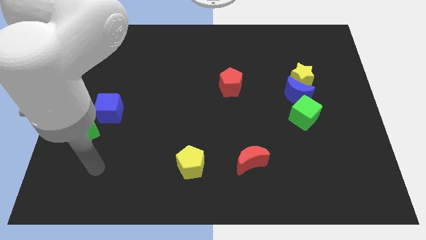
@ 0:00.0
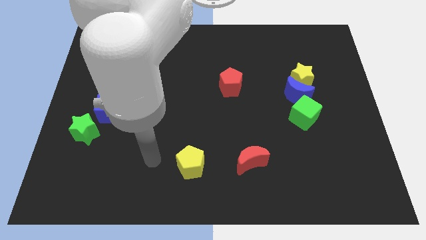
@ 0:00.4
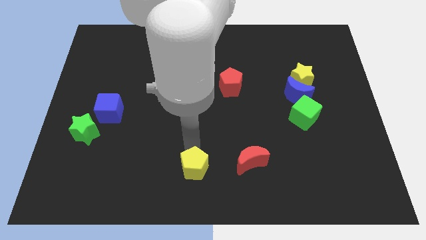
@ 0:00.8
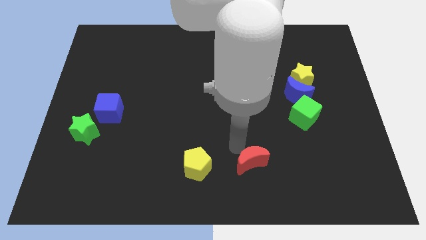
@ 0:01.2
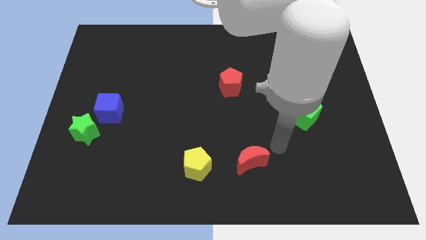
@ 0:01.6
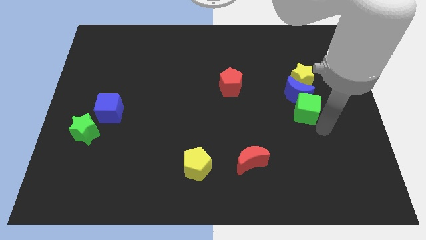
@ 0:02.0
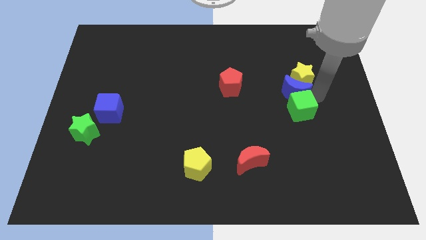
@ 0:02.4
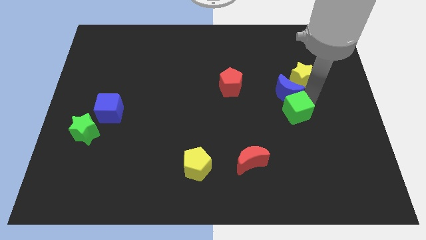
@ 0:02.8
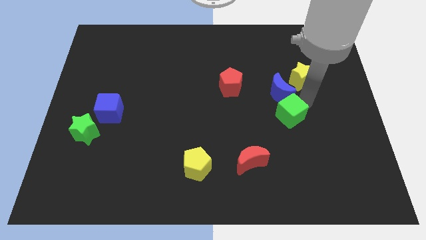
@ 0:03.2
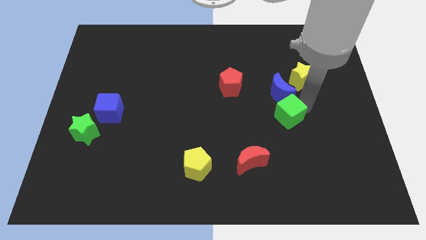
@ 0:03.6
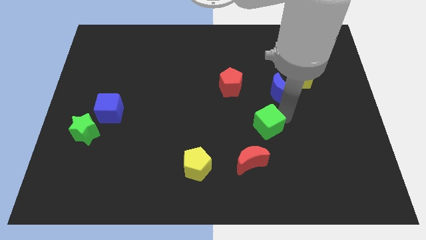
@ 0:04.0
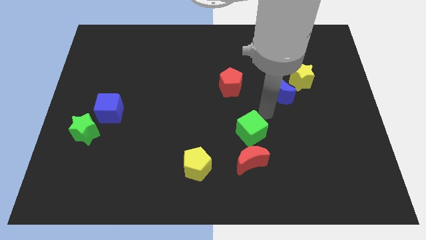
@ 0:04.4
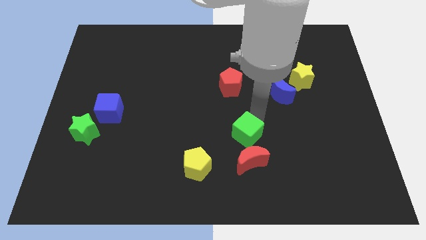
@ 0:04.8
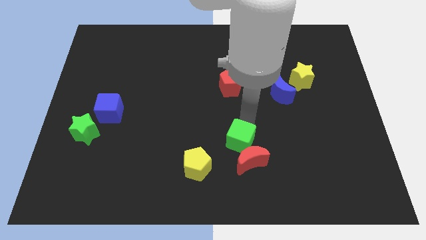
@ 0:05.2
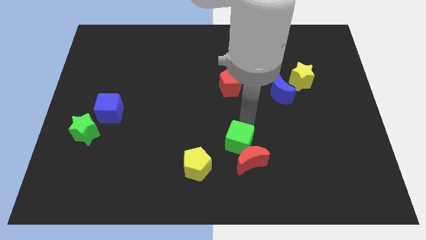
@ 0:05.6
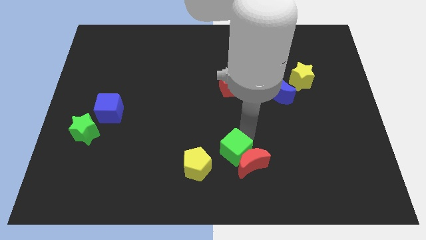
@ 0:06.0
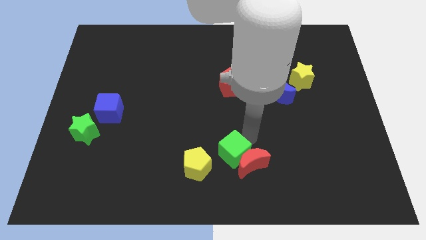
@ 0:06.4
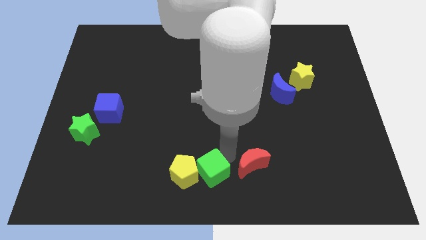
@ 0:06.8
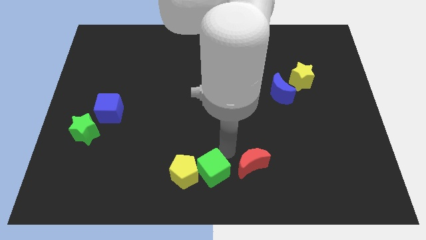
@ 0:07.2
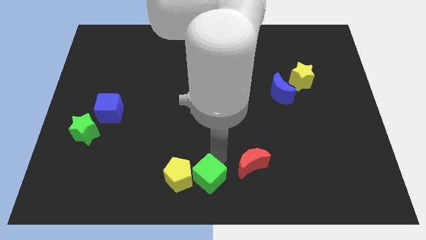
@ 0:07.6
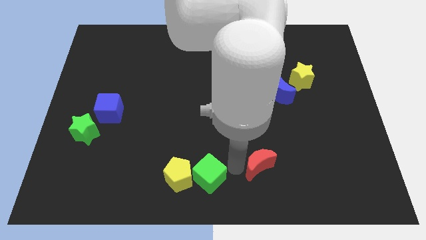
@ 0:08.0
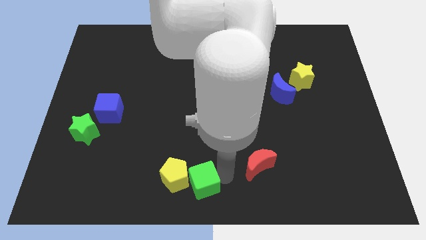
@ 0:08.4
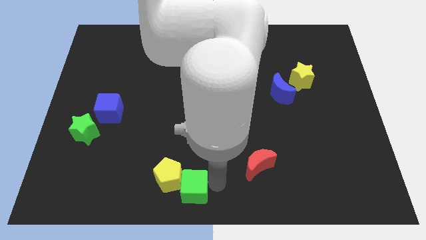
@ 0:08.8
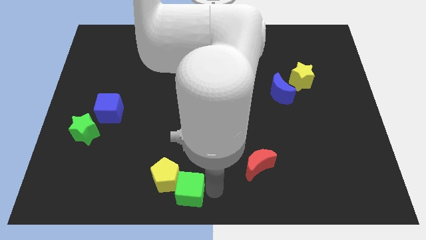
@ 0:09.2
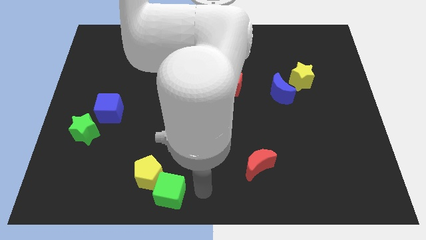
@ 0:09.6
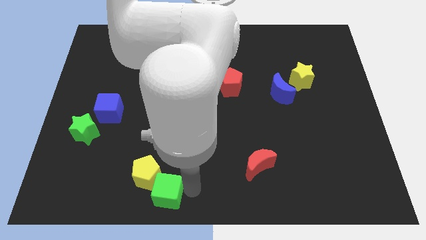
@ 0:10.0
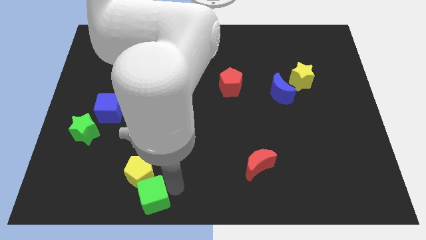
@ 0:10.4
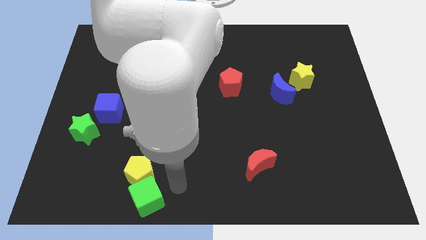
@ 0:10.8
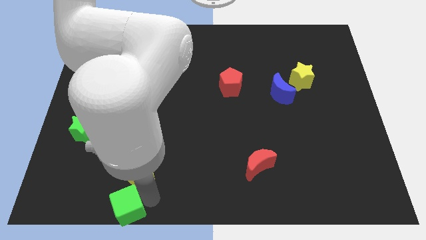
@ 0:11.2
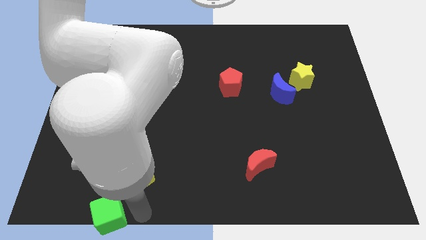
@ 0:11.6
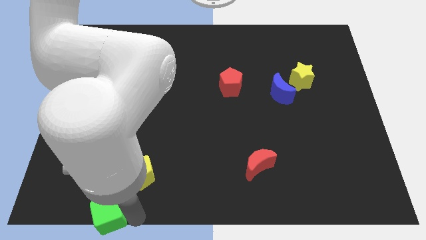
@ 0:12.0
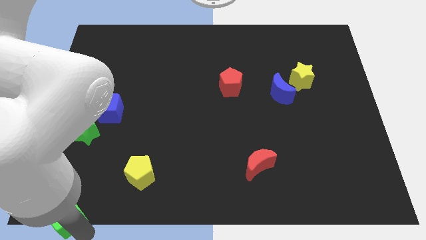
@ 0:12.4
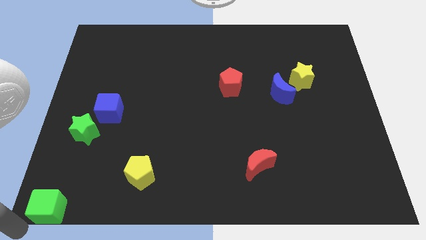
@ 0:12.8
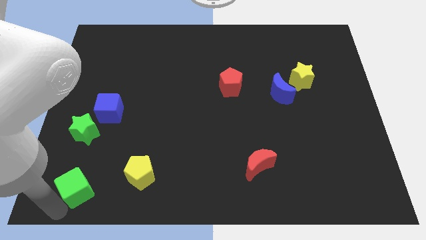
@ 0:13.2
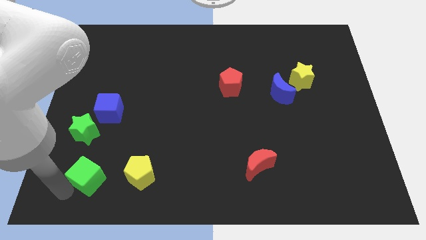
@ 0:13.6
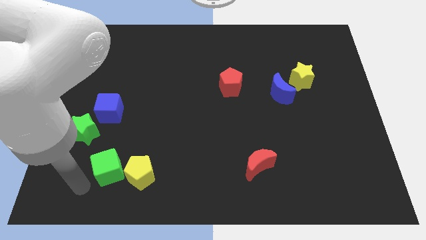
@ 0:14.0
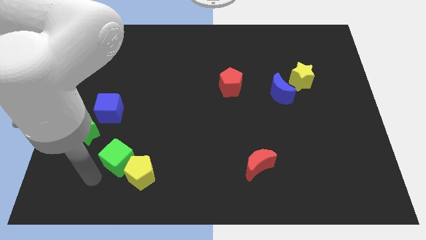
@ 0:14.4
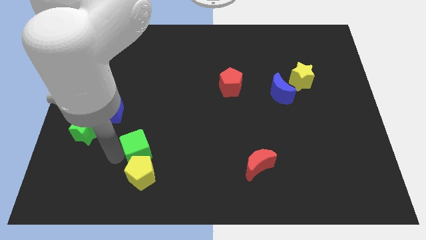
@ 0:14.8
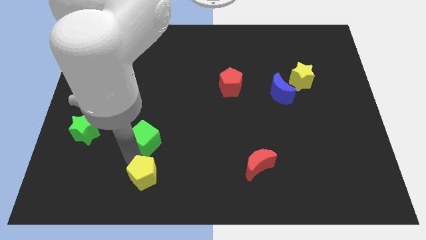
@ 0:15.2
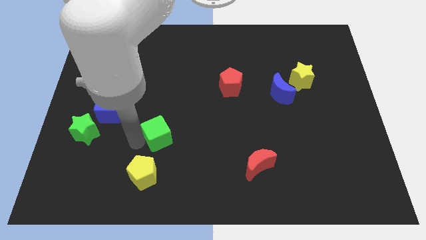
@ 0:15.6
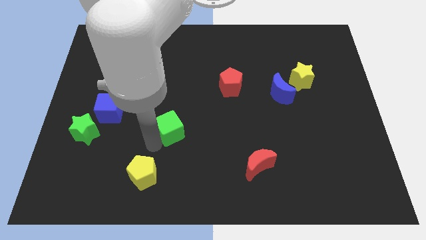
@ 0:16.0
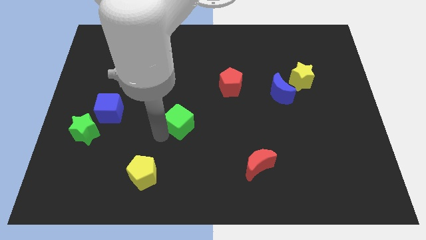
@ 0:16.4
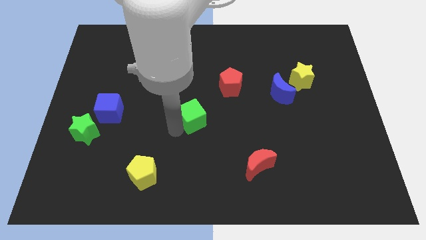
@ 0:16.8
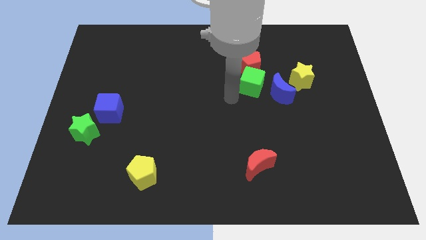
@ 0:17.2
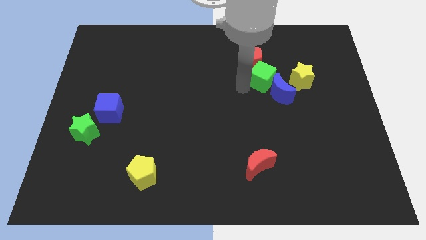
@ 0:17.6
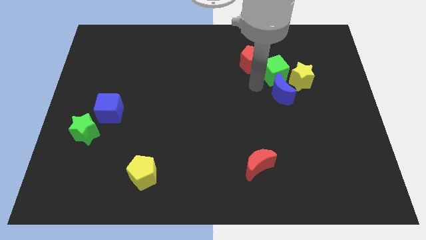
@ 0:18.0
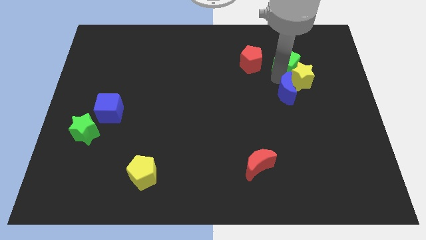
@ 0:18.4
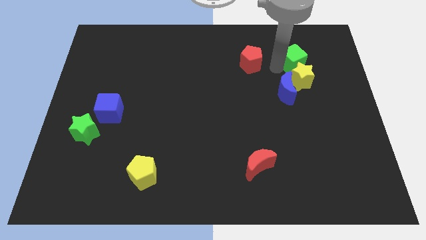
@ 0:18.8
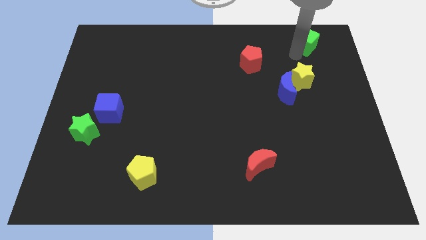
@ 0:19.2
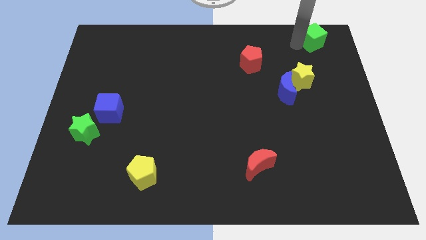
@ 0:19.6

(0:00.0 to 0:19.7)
push the green cube to the top right of the board

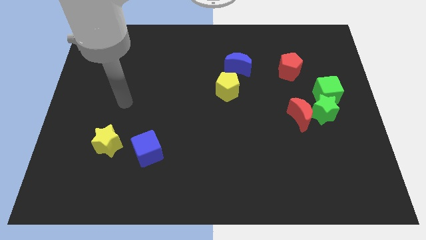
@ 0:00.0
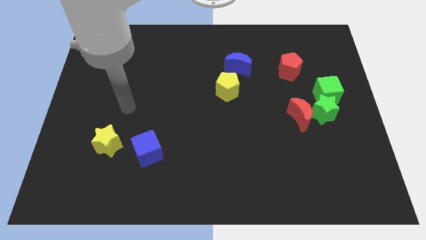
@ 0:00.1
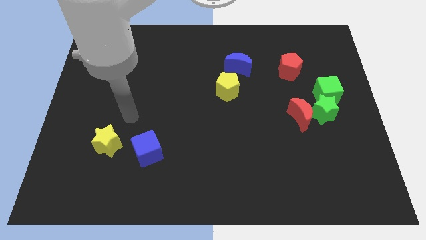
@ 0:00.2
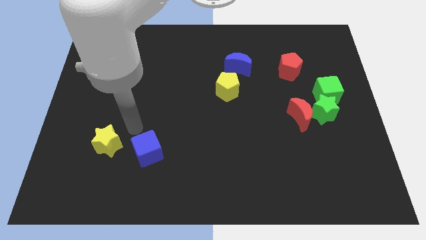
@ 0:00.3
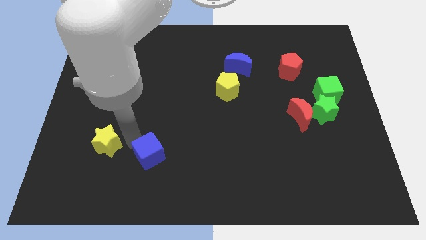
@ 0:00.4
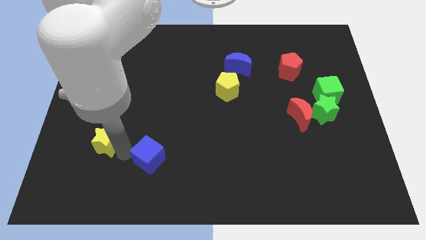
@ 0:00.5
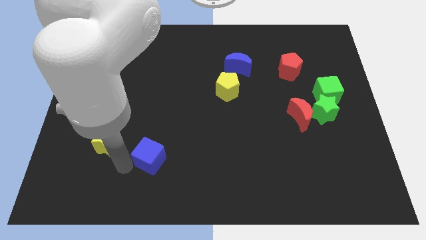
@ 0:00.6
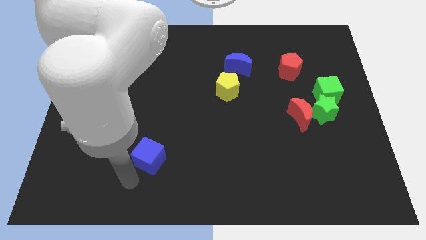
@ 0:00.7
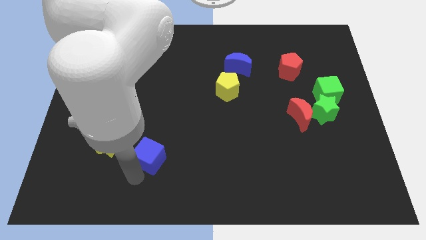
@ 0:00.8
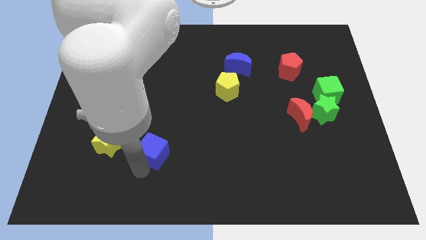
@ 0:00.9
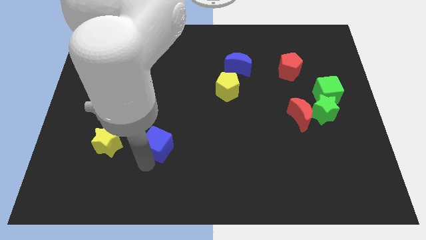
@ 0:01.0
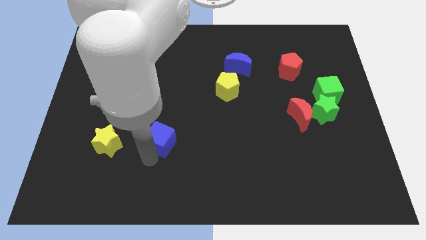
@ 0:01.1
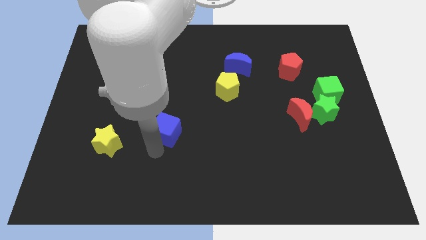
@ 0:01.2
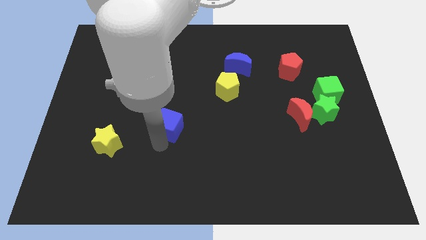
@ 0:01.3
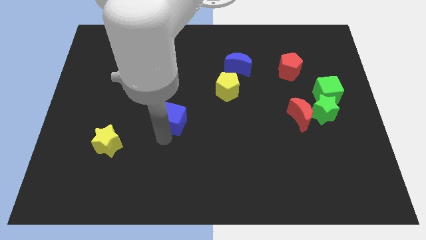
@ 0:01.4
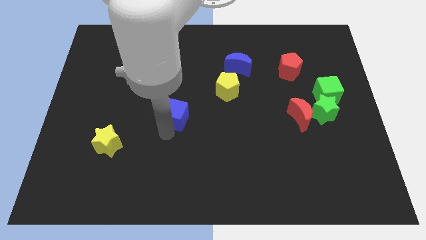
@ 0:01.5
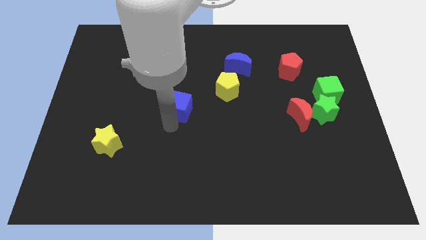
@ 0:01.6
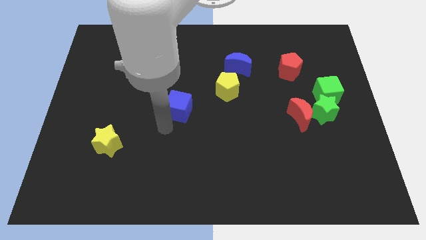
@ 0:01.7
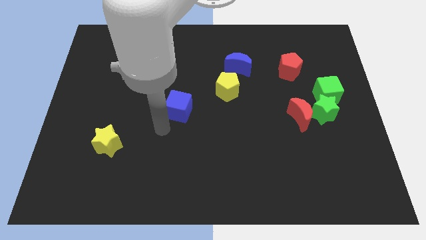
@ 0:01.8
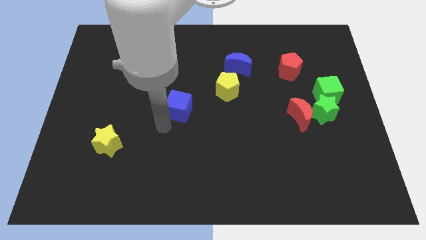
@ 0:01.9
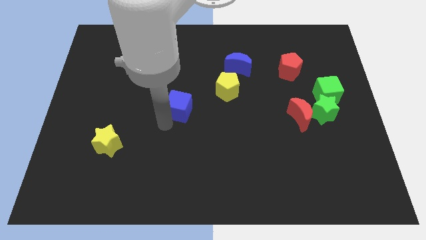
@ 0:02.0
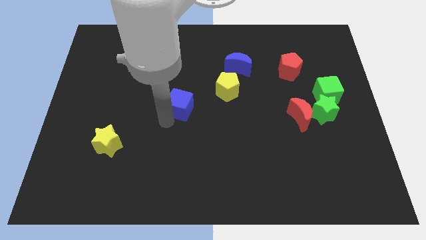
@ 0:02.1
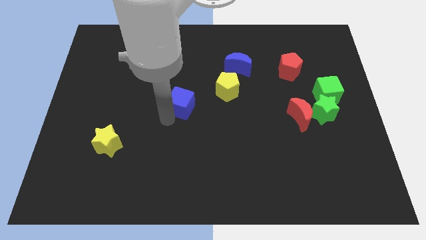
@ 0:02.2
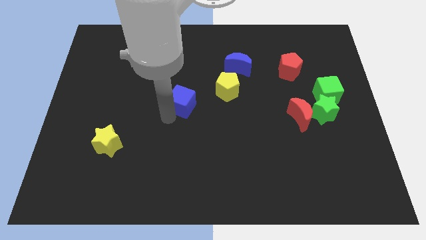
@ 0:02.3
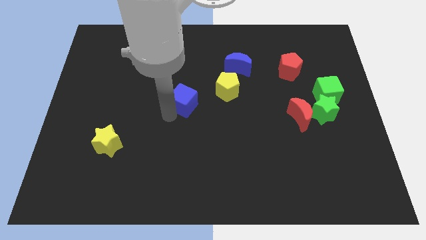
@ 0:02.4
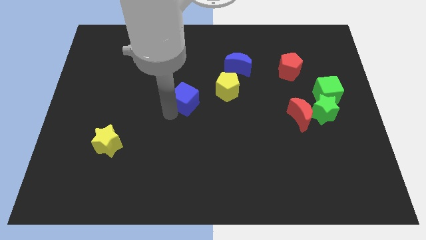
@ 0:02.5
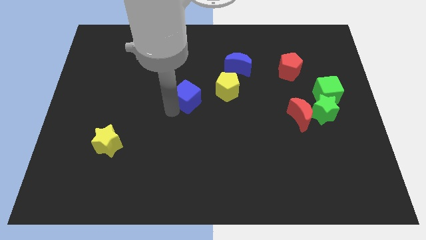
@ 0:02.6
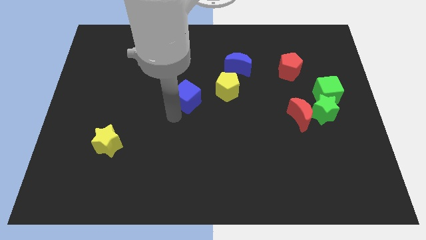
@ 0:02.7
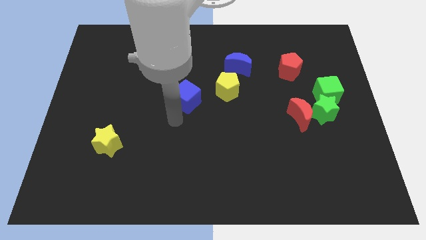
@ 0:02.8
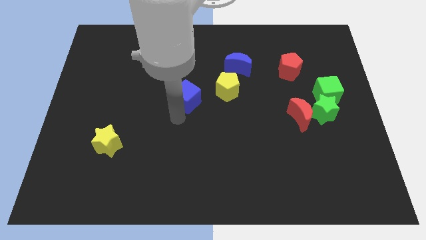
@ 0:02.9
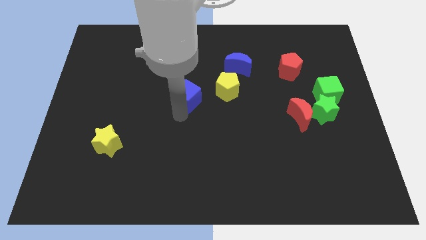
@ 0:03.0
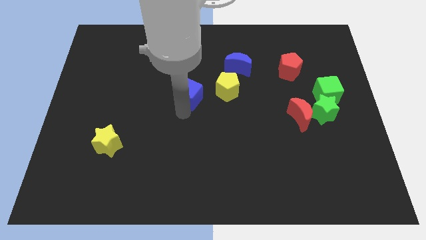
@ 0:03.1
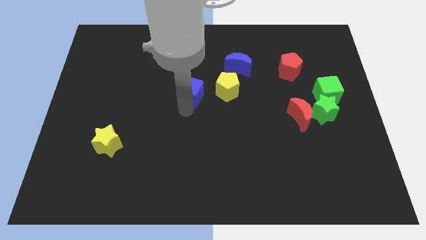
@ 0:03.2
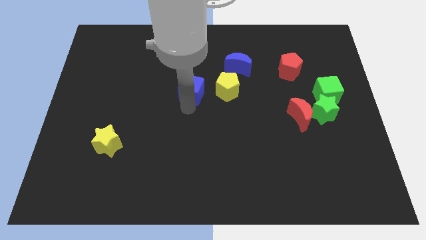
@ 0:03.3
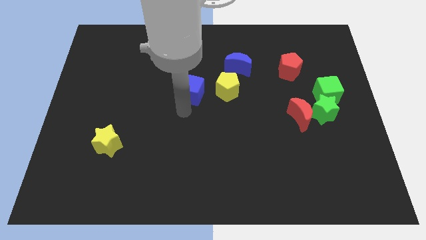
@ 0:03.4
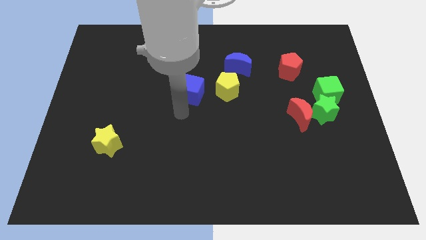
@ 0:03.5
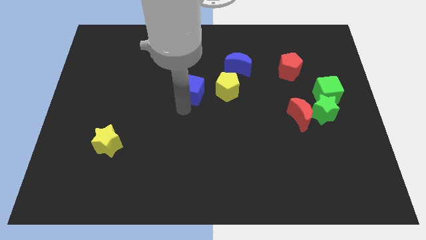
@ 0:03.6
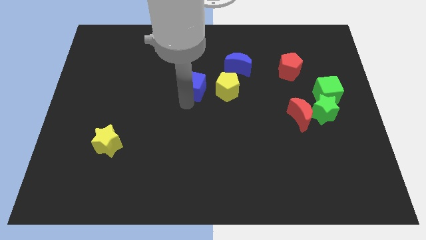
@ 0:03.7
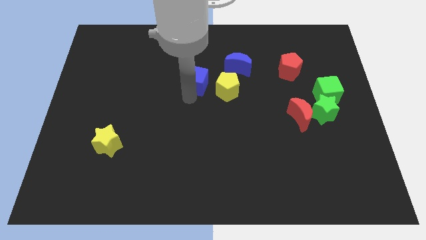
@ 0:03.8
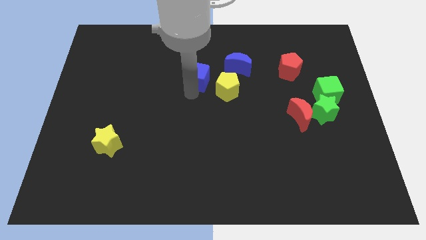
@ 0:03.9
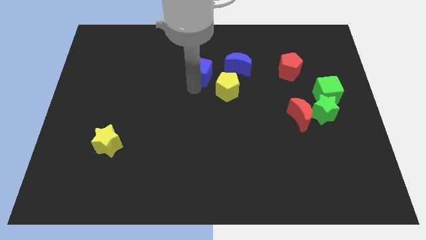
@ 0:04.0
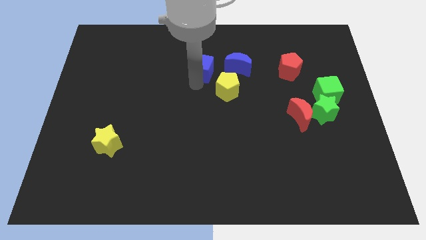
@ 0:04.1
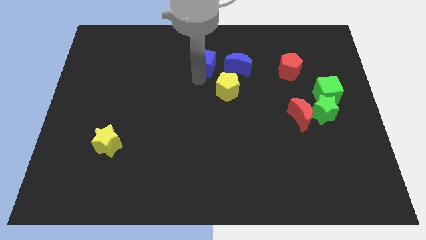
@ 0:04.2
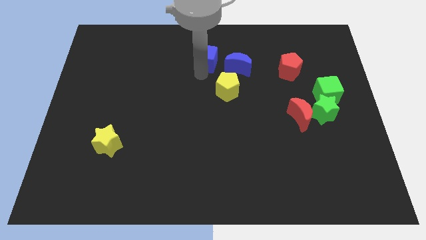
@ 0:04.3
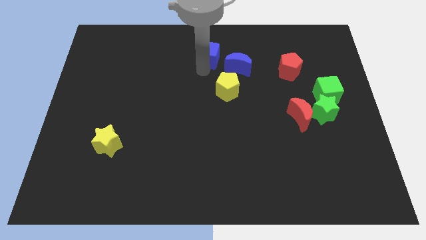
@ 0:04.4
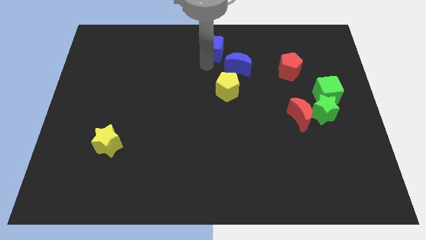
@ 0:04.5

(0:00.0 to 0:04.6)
move the blue cube to the top side
